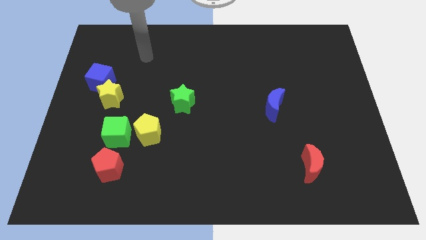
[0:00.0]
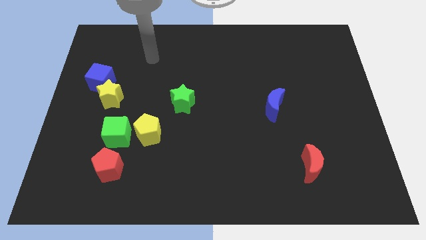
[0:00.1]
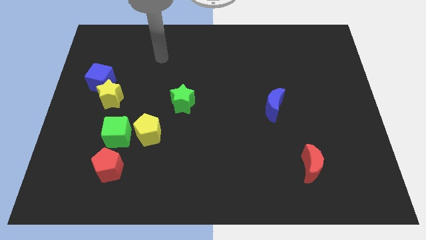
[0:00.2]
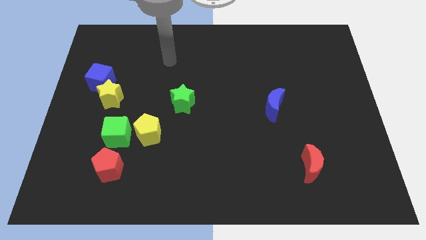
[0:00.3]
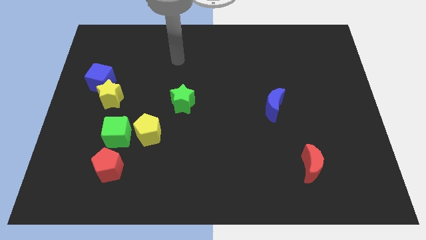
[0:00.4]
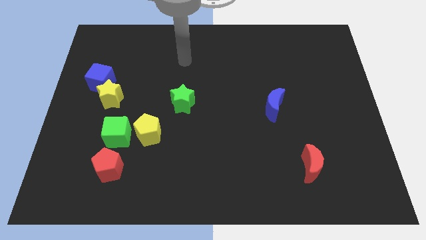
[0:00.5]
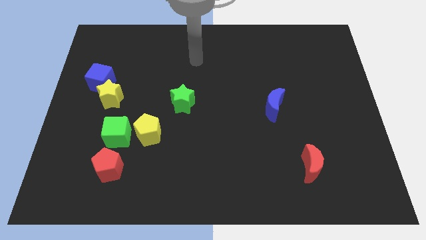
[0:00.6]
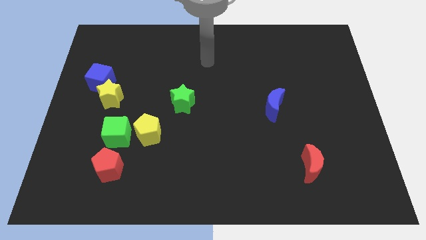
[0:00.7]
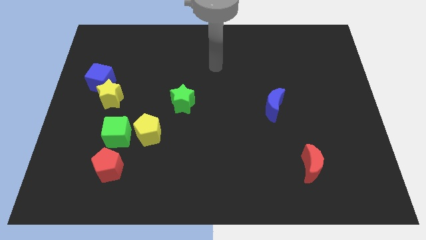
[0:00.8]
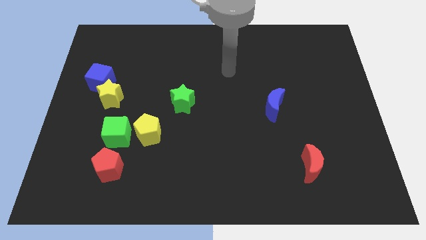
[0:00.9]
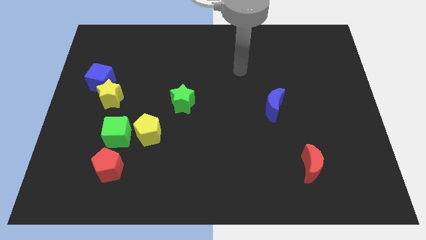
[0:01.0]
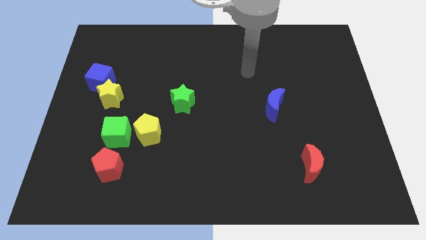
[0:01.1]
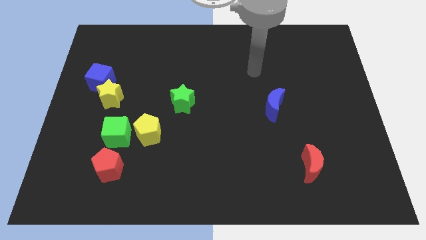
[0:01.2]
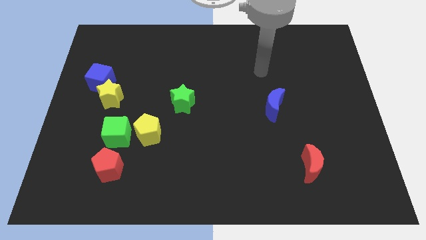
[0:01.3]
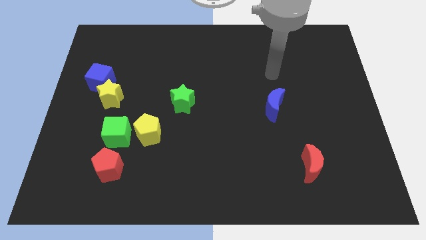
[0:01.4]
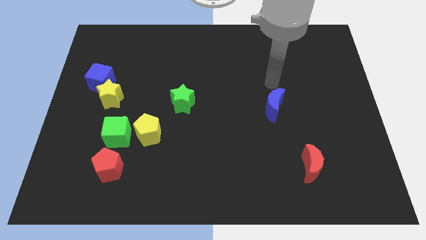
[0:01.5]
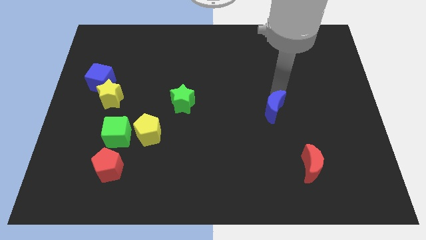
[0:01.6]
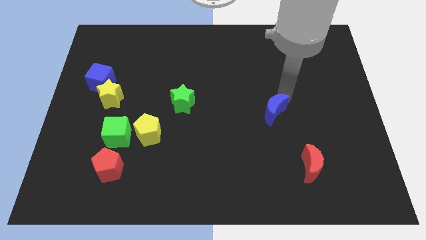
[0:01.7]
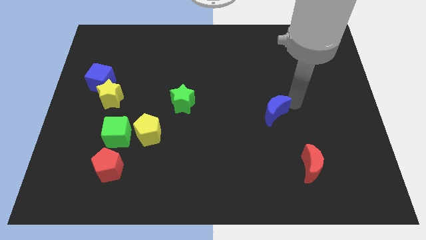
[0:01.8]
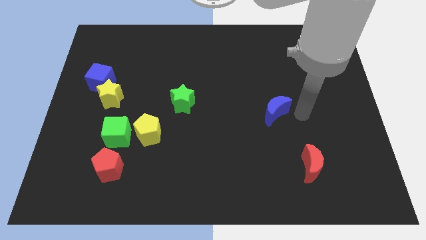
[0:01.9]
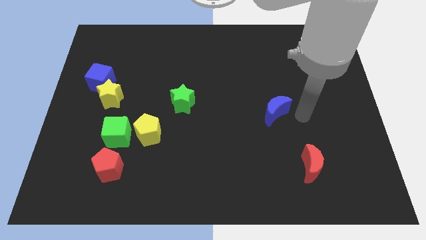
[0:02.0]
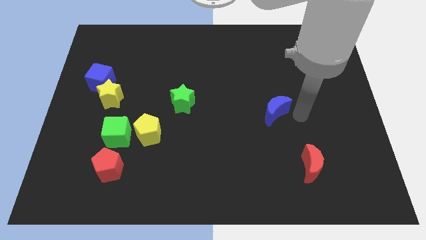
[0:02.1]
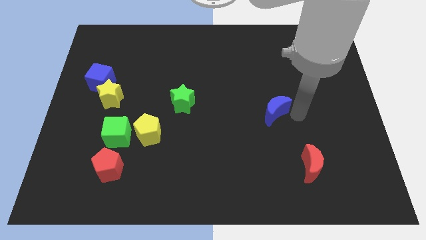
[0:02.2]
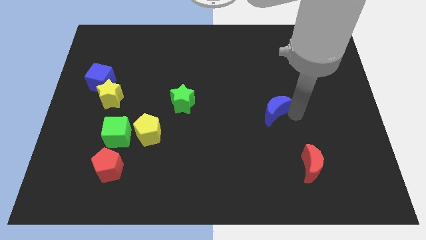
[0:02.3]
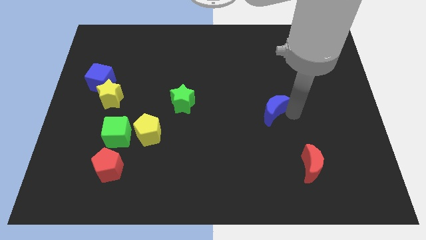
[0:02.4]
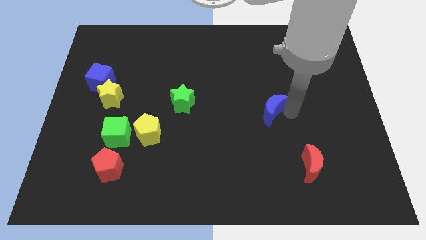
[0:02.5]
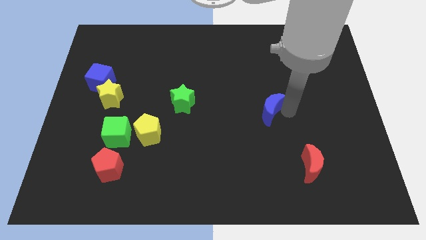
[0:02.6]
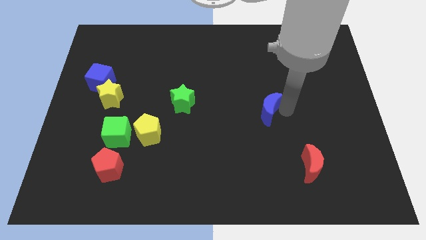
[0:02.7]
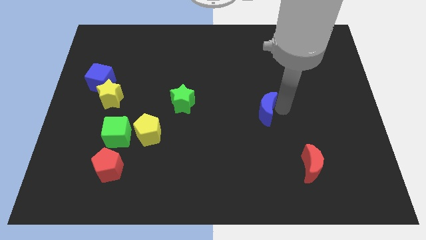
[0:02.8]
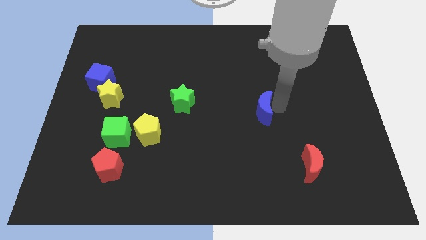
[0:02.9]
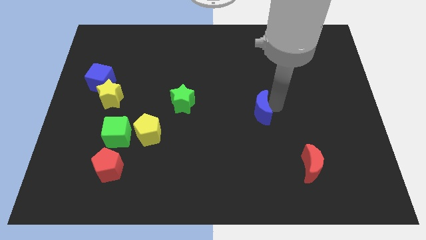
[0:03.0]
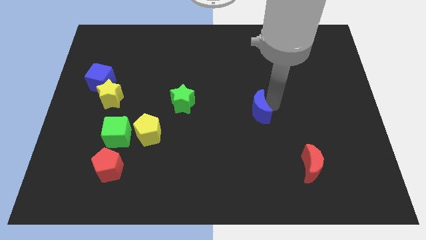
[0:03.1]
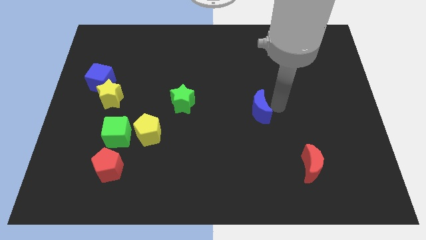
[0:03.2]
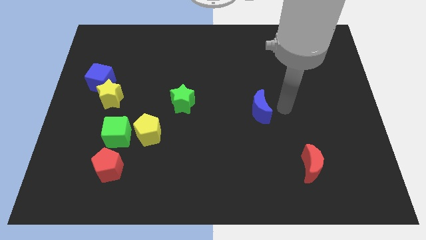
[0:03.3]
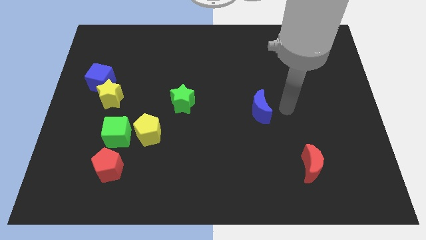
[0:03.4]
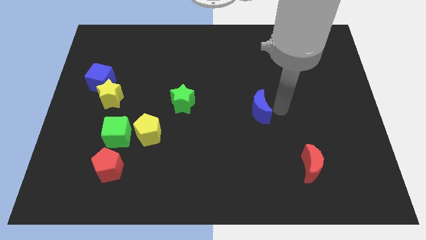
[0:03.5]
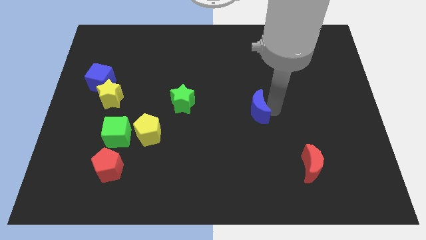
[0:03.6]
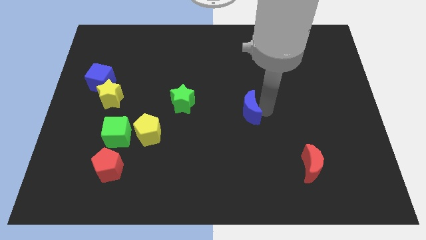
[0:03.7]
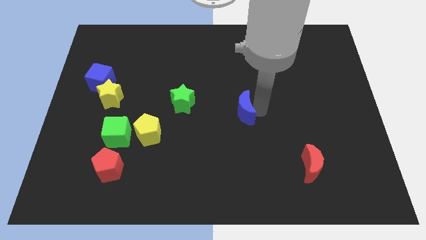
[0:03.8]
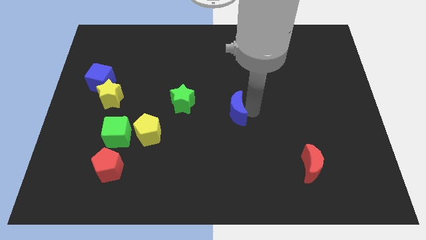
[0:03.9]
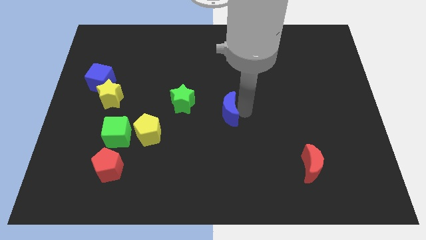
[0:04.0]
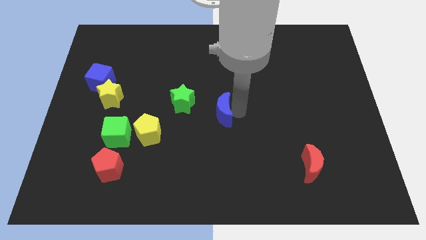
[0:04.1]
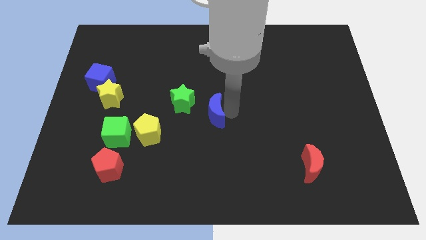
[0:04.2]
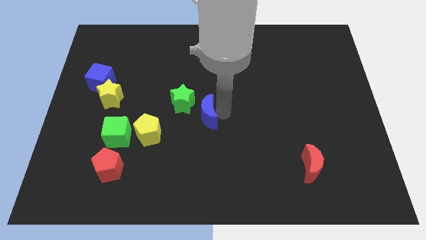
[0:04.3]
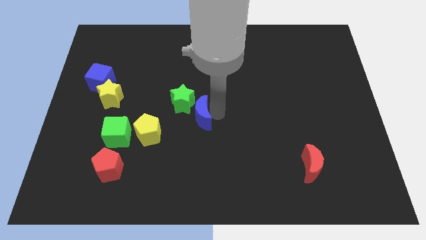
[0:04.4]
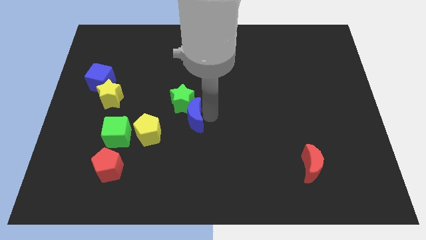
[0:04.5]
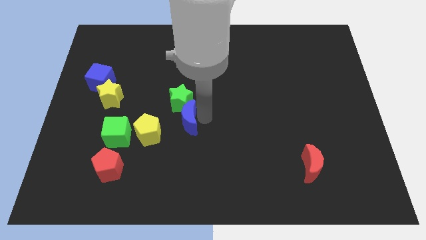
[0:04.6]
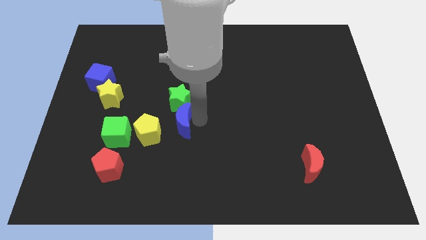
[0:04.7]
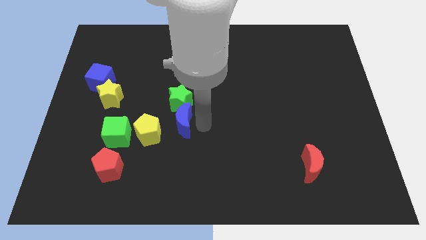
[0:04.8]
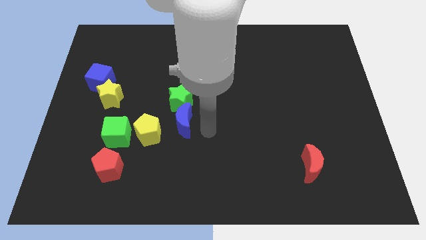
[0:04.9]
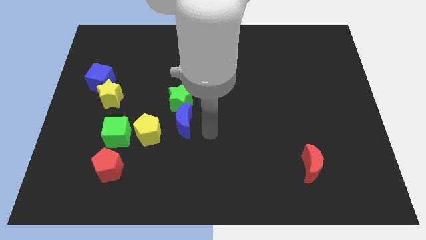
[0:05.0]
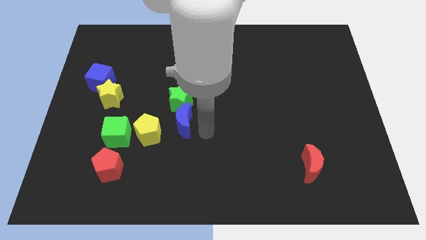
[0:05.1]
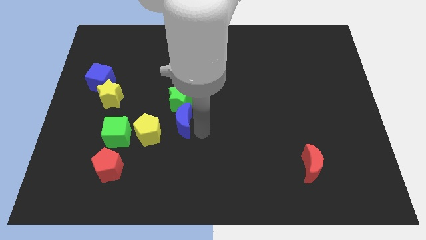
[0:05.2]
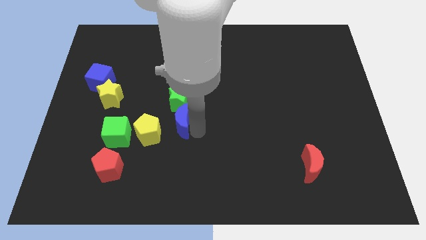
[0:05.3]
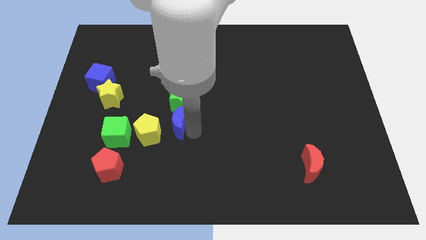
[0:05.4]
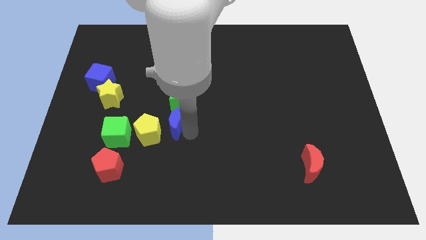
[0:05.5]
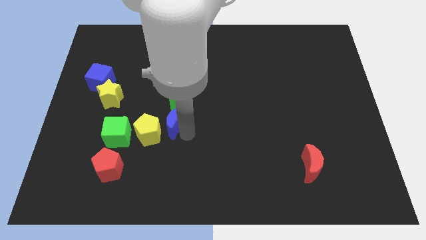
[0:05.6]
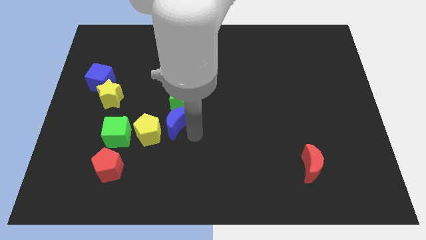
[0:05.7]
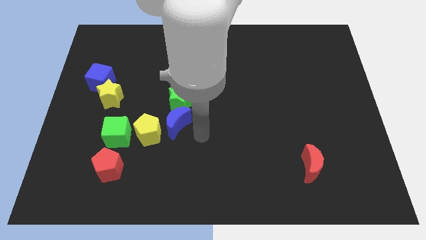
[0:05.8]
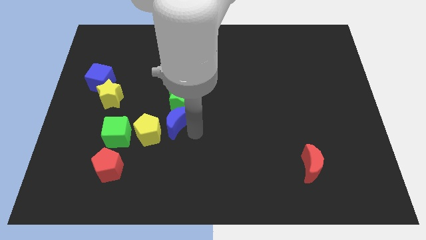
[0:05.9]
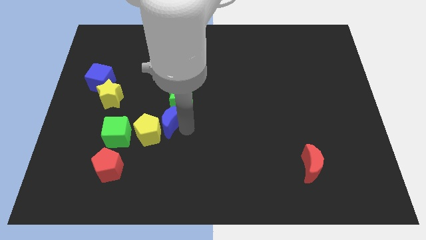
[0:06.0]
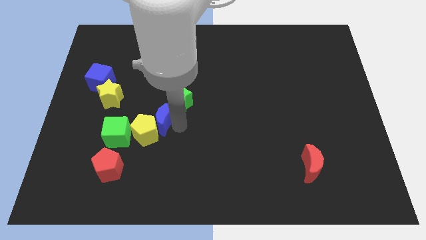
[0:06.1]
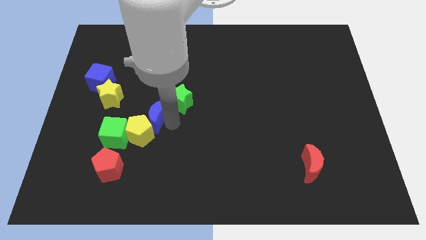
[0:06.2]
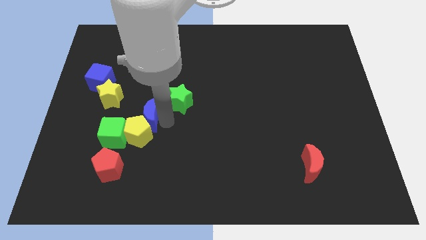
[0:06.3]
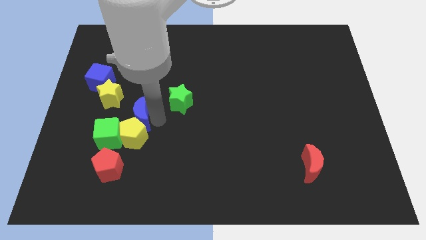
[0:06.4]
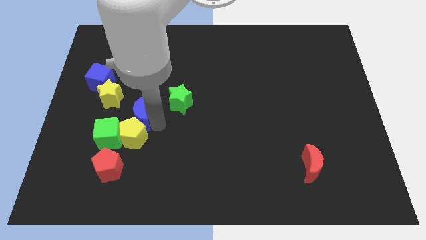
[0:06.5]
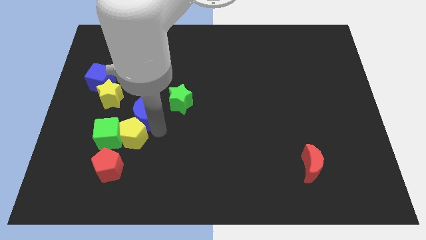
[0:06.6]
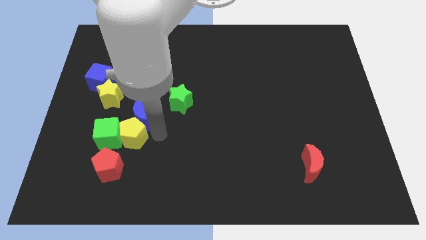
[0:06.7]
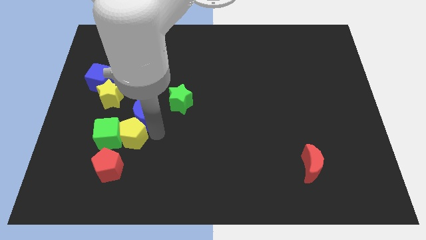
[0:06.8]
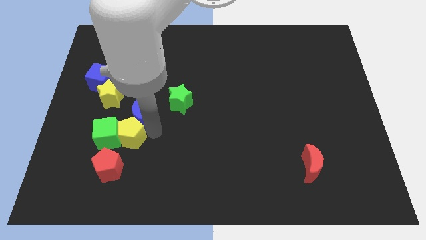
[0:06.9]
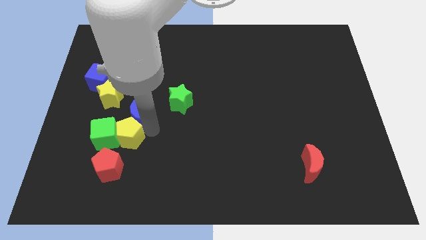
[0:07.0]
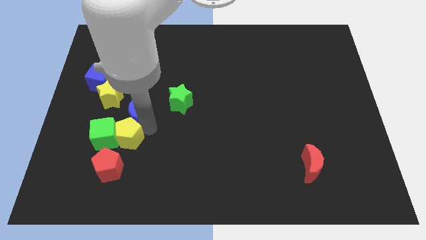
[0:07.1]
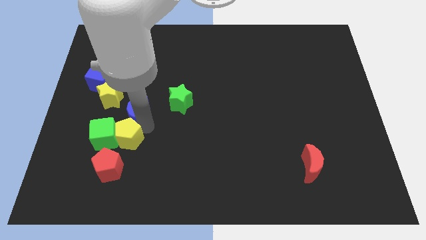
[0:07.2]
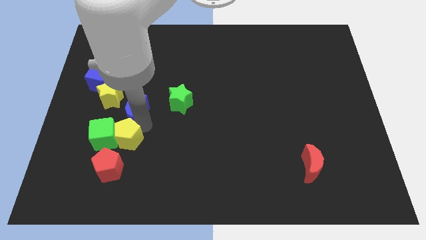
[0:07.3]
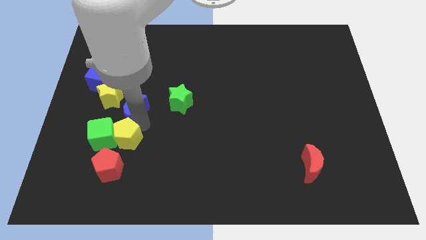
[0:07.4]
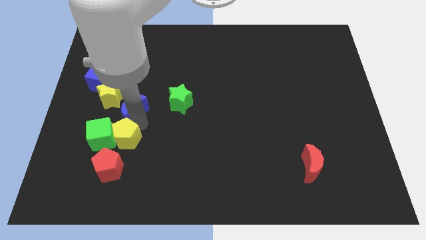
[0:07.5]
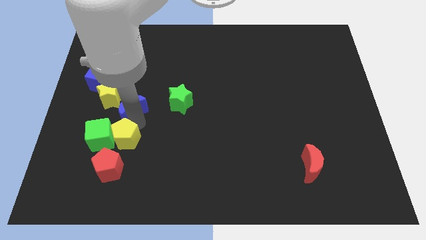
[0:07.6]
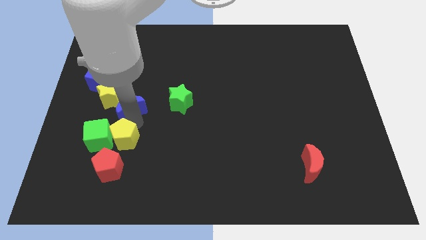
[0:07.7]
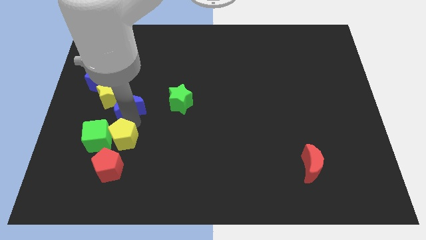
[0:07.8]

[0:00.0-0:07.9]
slide the blue moon towards the yellow star
